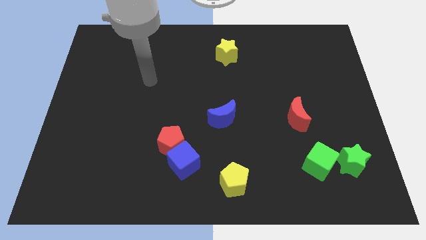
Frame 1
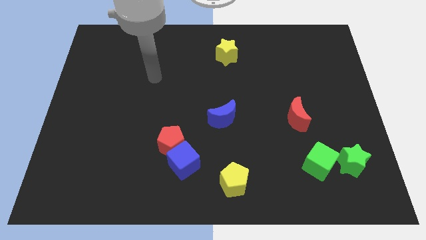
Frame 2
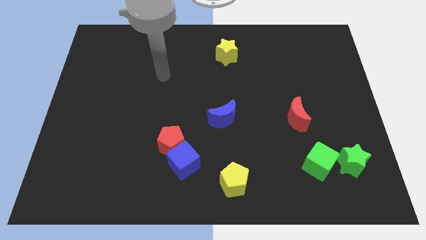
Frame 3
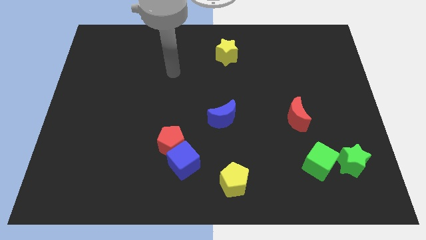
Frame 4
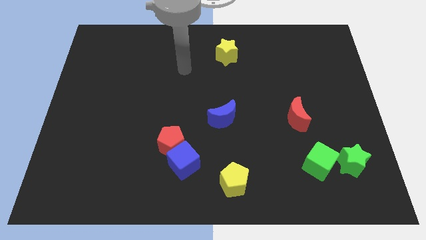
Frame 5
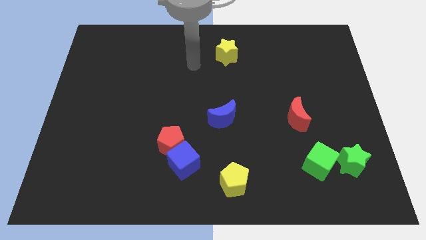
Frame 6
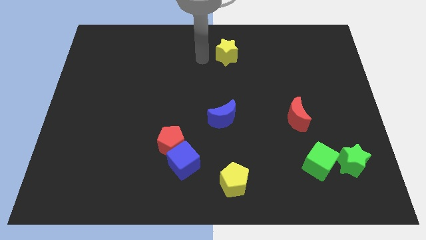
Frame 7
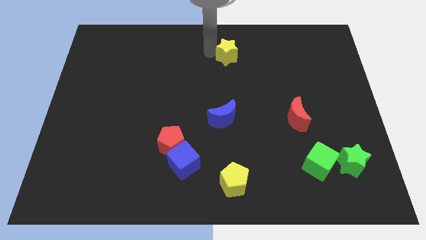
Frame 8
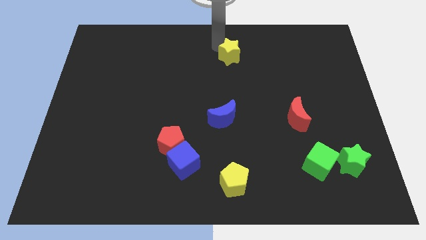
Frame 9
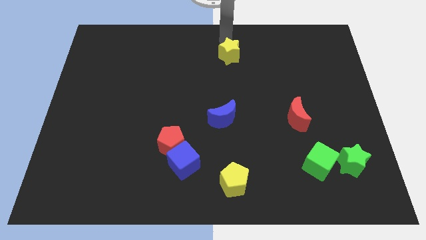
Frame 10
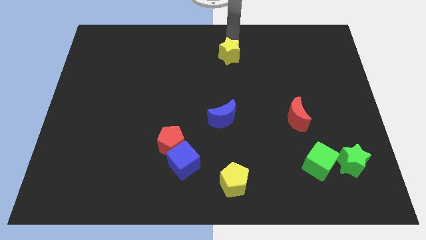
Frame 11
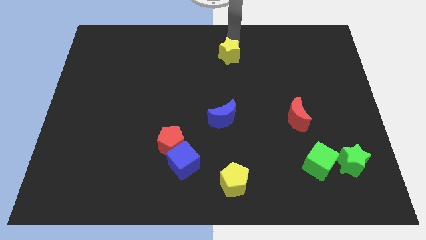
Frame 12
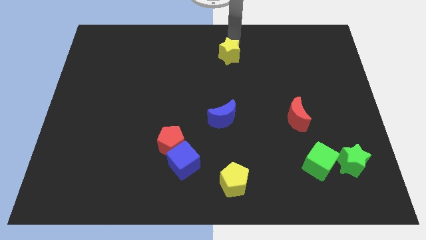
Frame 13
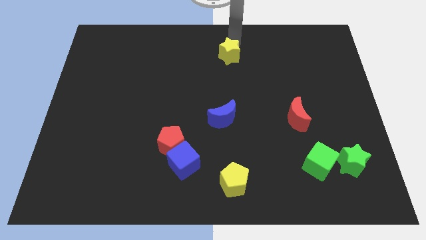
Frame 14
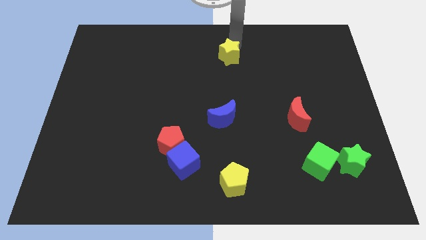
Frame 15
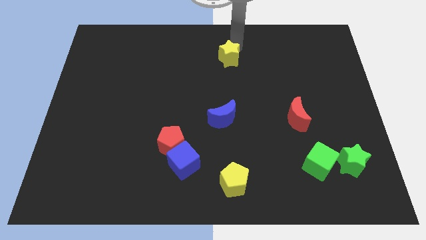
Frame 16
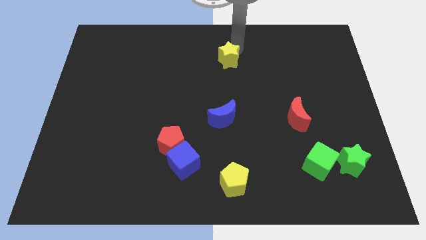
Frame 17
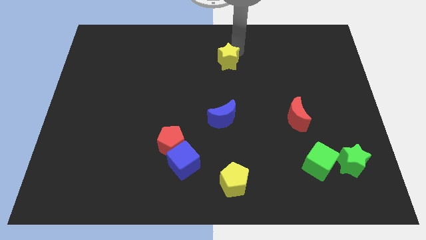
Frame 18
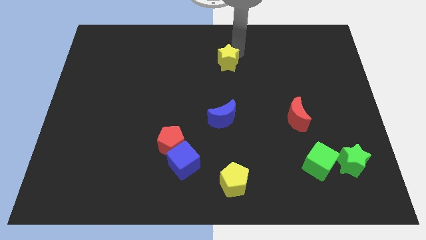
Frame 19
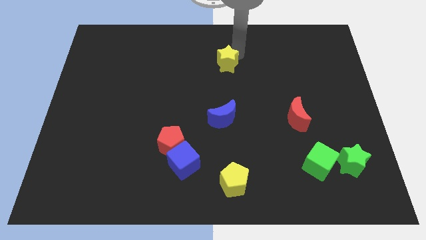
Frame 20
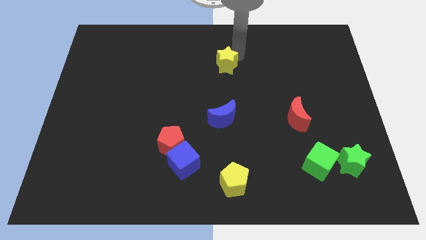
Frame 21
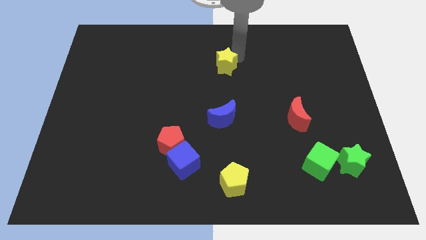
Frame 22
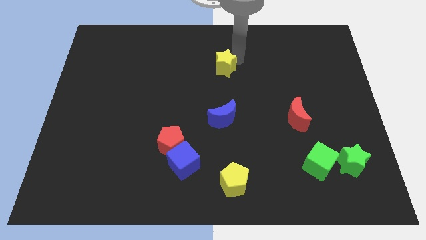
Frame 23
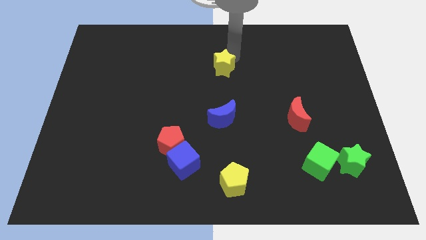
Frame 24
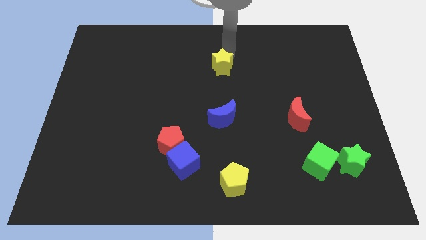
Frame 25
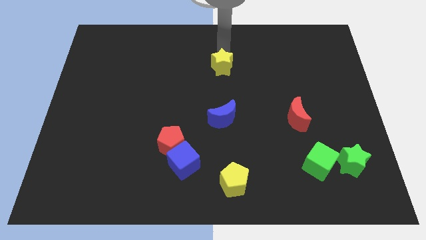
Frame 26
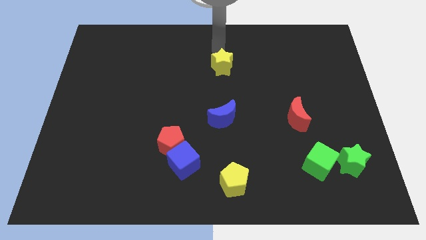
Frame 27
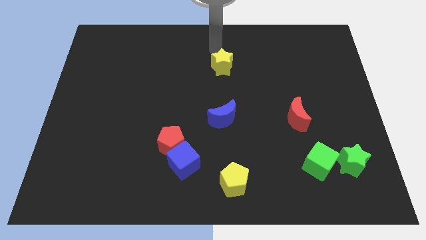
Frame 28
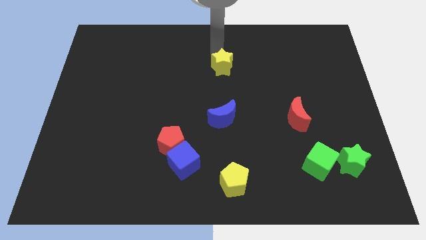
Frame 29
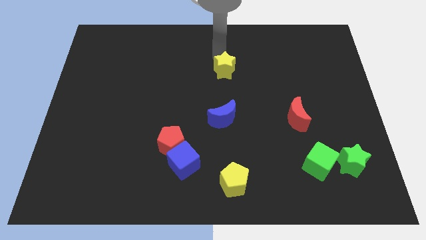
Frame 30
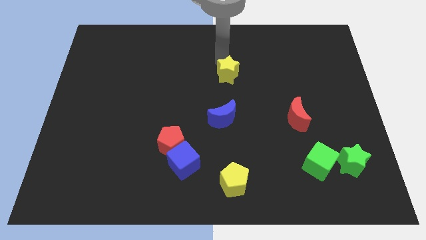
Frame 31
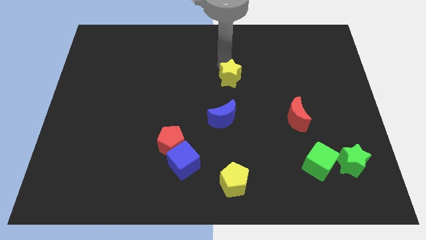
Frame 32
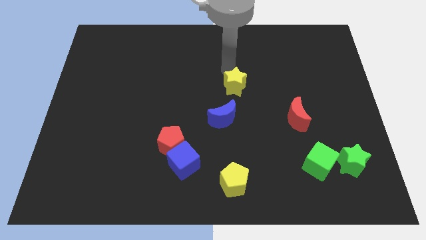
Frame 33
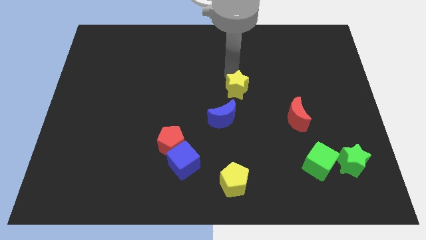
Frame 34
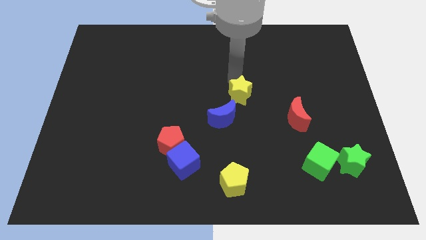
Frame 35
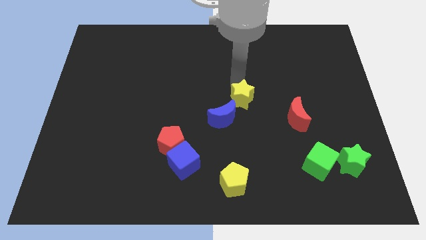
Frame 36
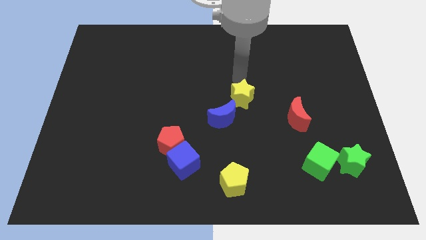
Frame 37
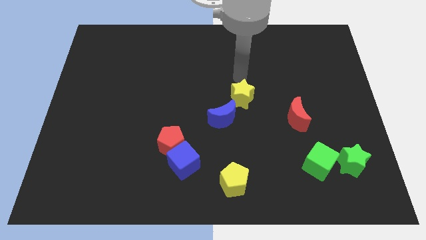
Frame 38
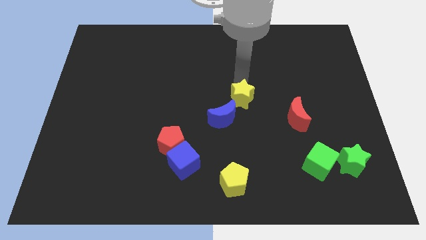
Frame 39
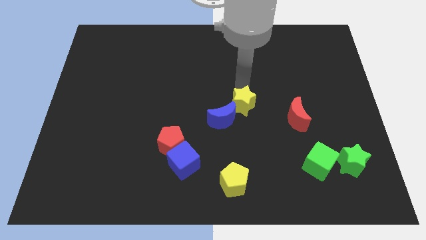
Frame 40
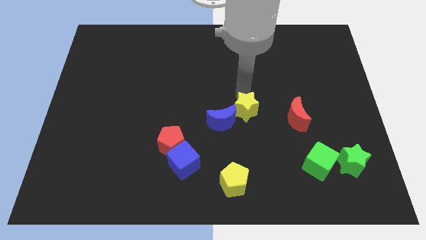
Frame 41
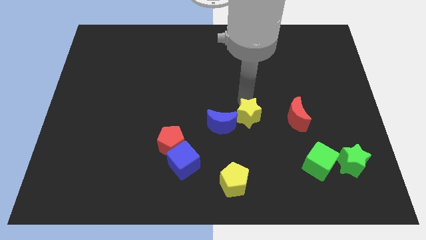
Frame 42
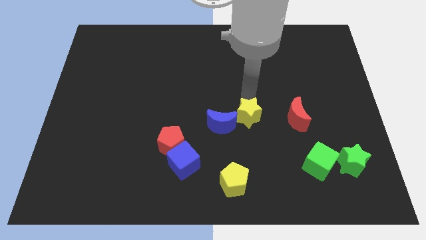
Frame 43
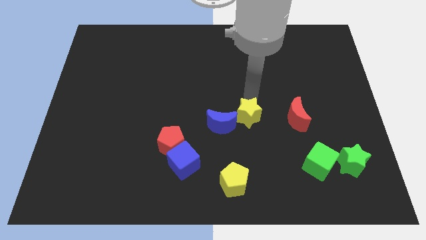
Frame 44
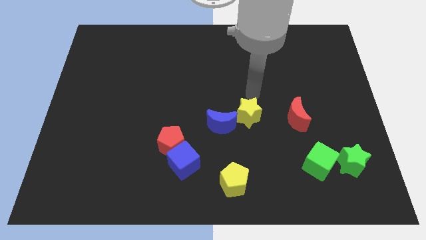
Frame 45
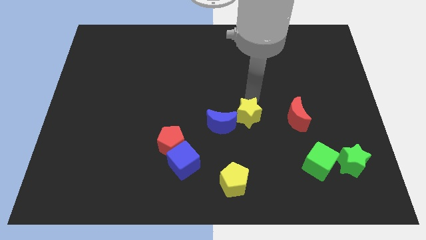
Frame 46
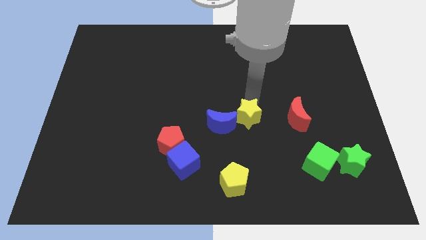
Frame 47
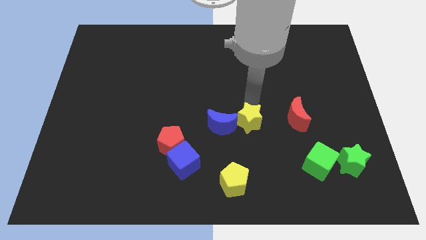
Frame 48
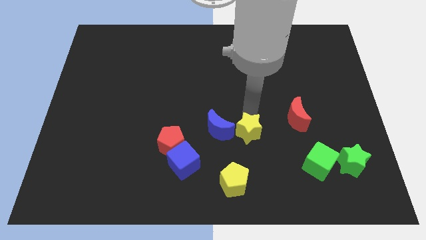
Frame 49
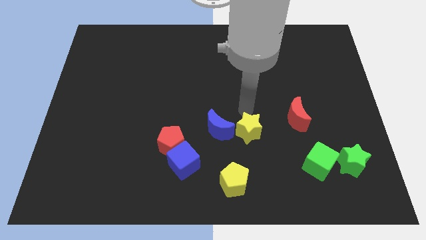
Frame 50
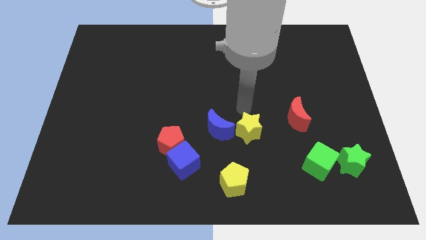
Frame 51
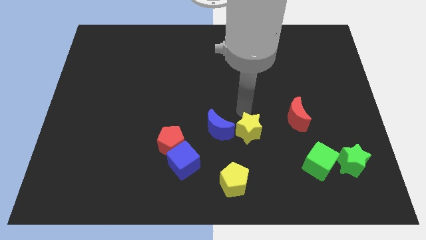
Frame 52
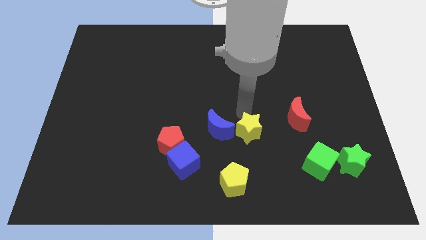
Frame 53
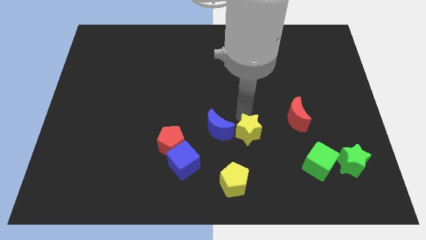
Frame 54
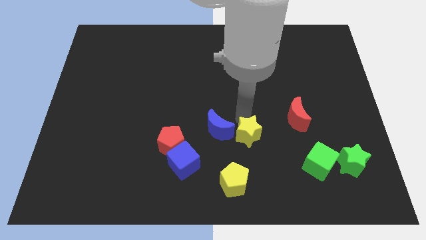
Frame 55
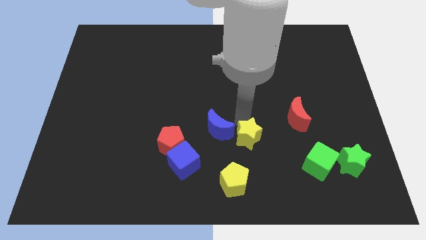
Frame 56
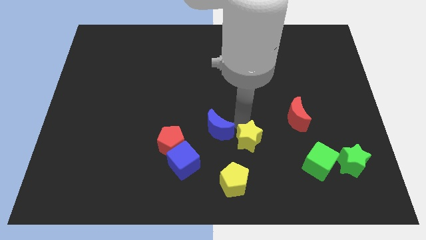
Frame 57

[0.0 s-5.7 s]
move the yellow star to the top right side of the yellow pentagon

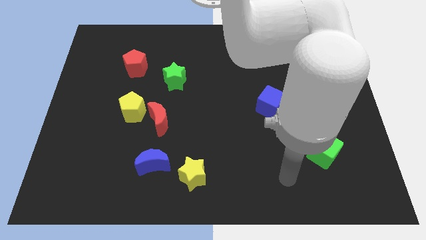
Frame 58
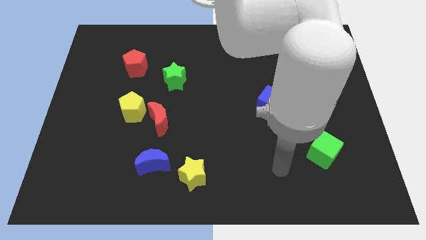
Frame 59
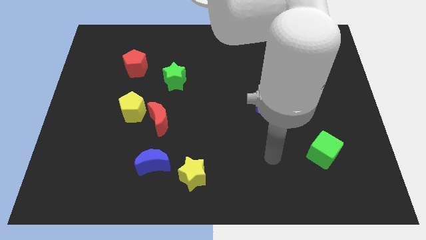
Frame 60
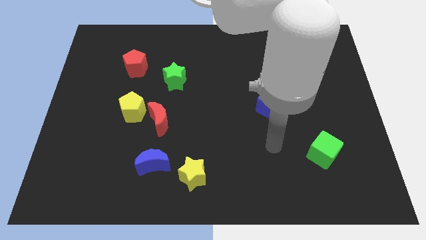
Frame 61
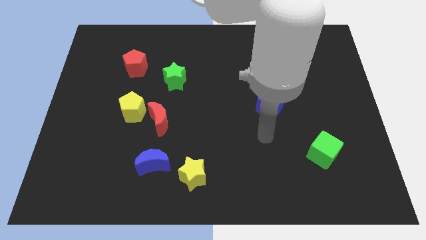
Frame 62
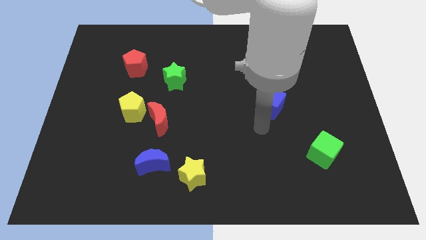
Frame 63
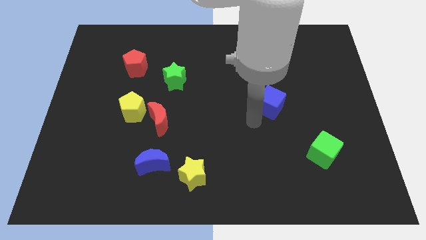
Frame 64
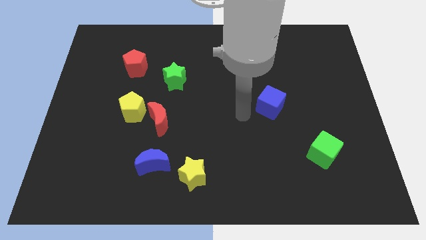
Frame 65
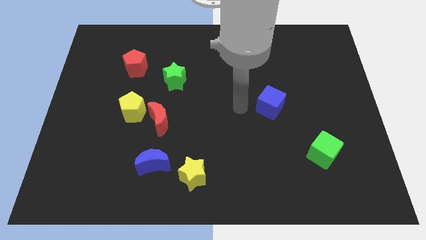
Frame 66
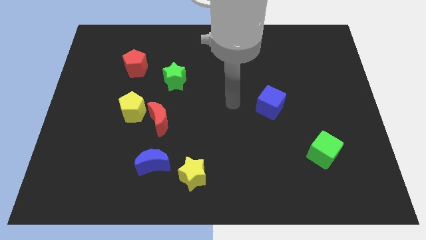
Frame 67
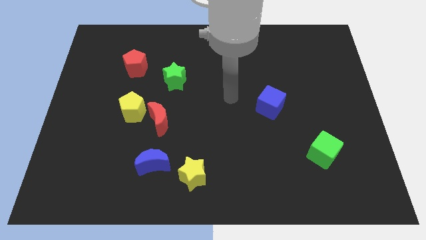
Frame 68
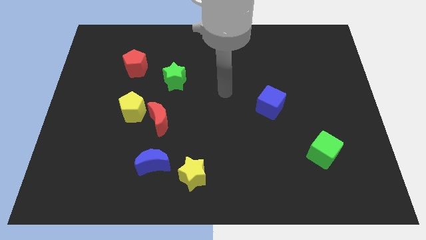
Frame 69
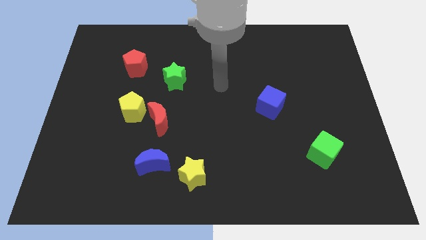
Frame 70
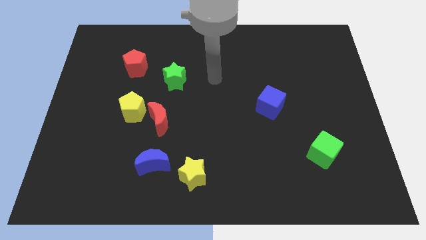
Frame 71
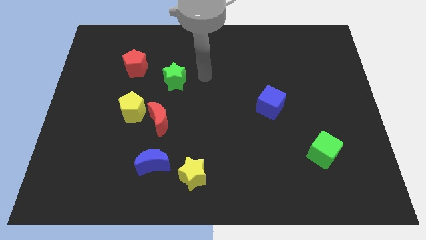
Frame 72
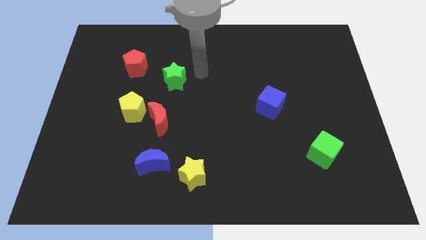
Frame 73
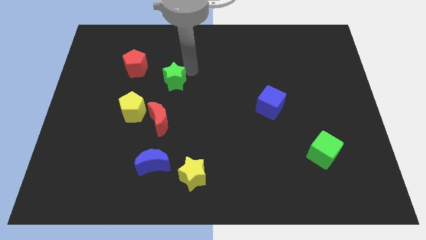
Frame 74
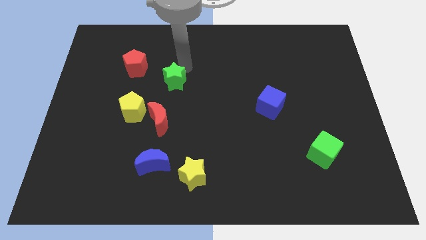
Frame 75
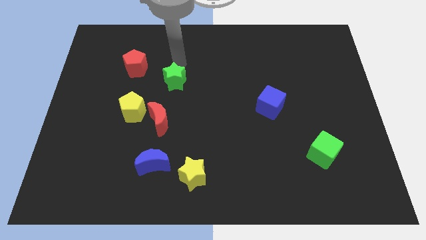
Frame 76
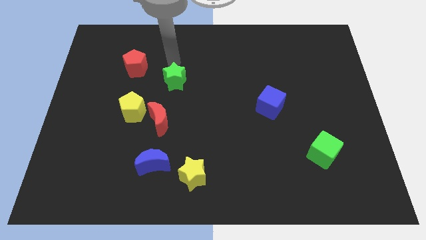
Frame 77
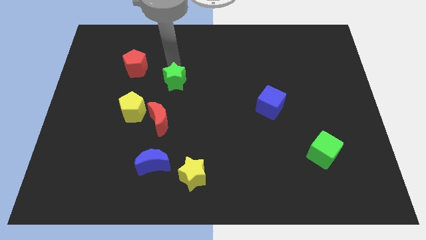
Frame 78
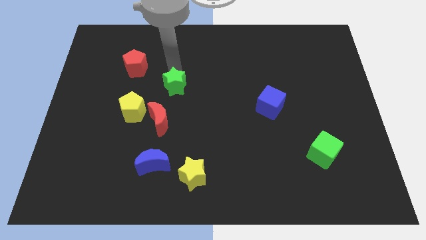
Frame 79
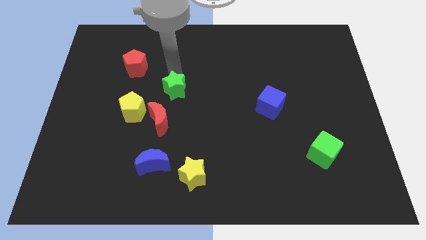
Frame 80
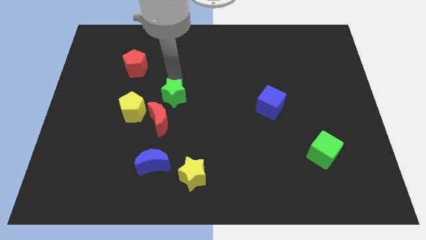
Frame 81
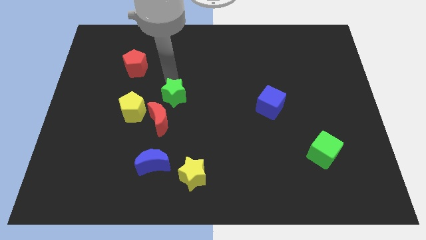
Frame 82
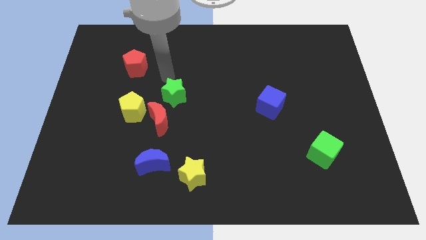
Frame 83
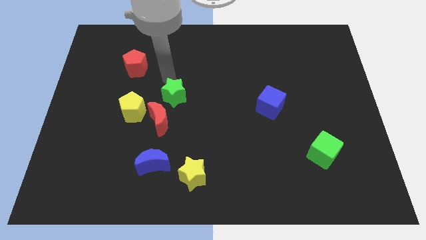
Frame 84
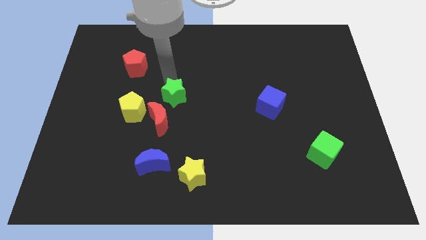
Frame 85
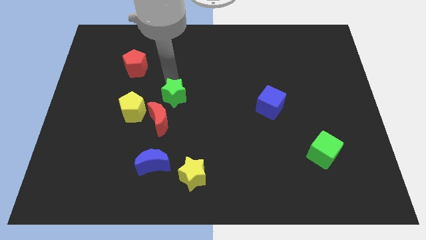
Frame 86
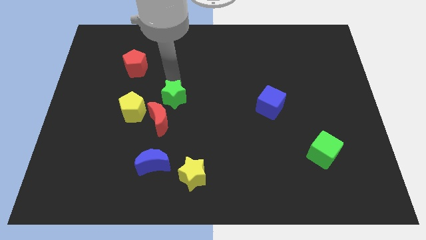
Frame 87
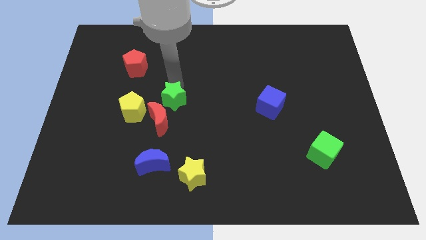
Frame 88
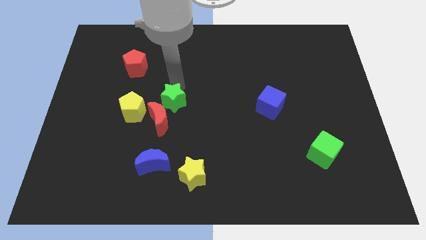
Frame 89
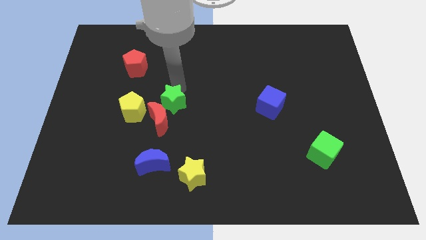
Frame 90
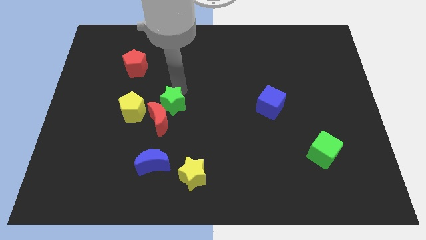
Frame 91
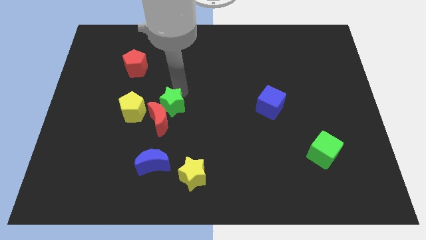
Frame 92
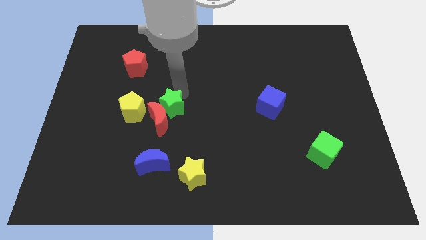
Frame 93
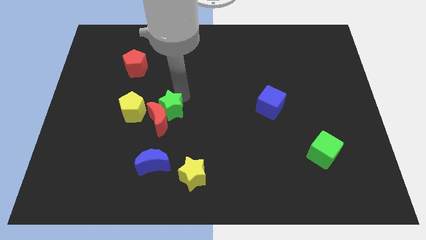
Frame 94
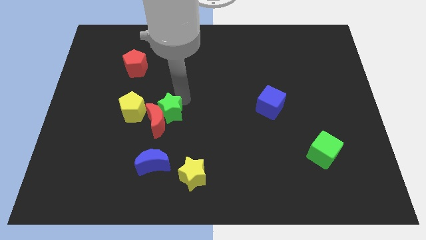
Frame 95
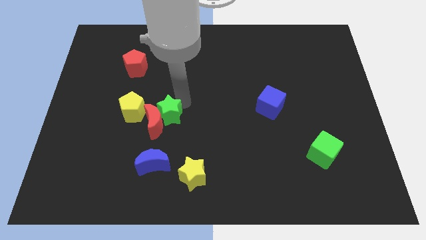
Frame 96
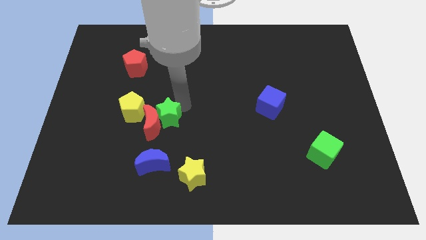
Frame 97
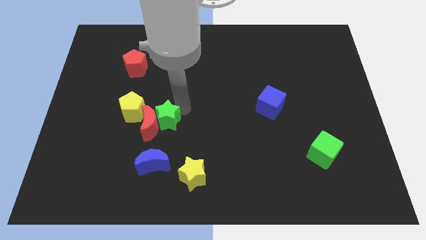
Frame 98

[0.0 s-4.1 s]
push the green star to the bottom right of the red moon
